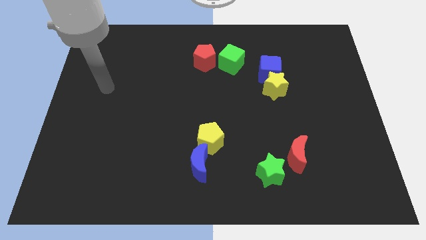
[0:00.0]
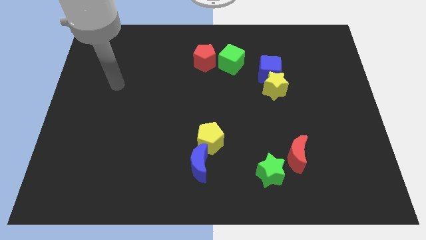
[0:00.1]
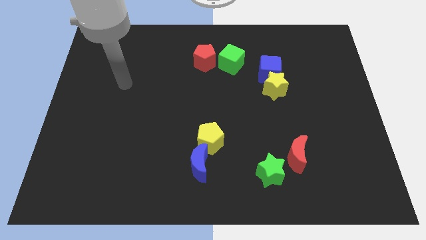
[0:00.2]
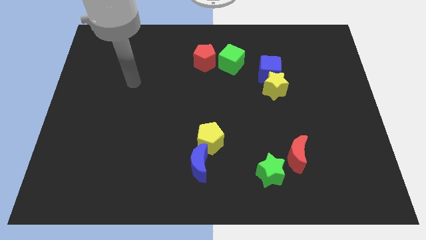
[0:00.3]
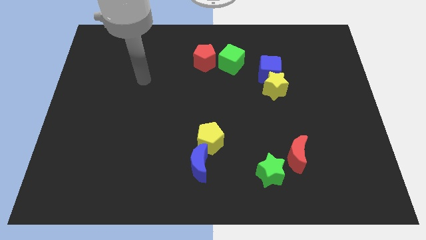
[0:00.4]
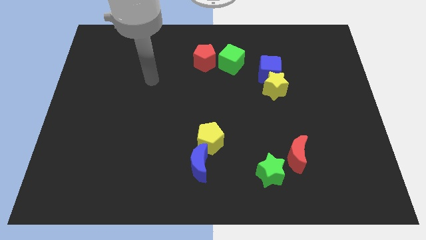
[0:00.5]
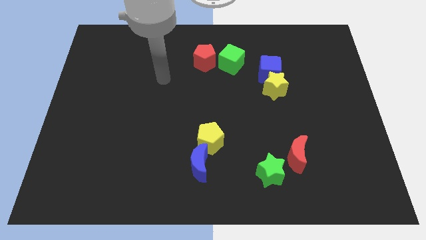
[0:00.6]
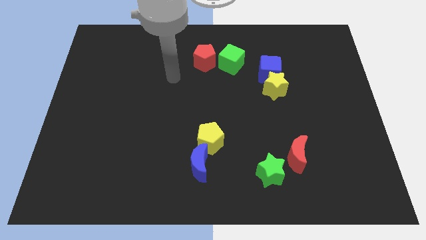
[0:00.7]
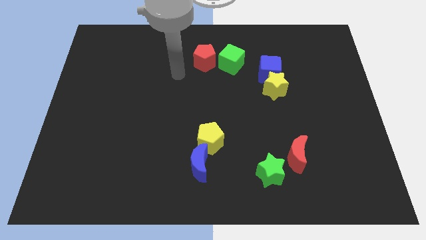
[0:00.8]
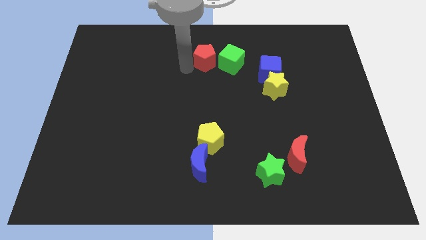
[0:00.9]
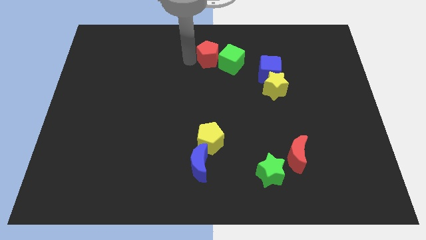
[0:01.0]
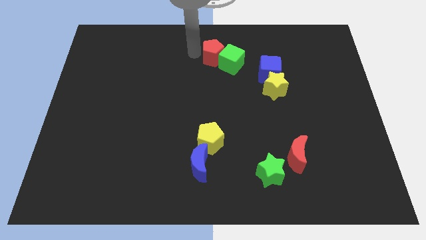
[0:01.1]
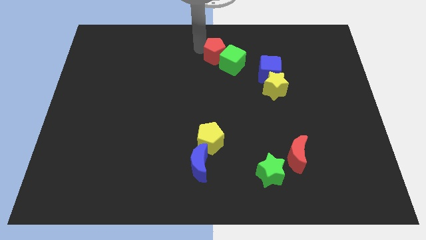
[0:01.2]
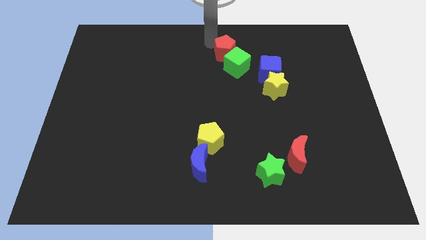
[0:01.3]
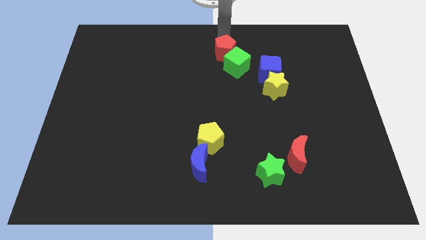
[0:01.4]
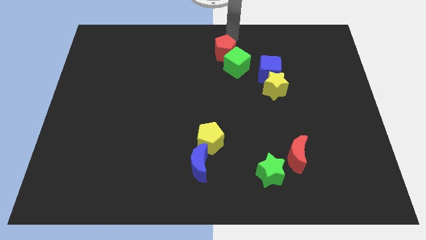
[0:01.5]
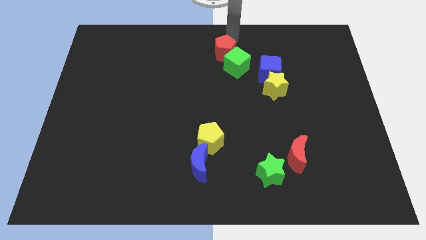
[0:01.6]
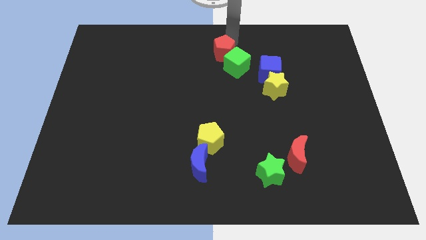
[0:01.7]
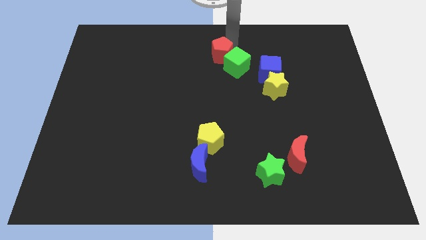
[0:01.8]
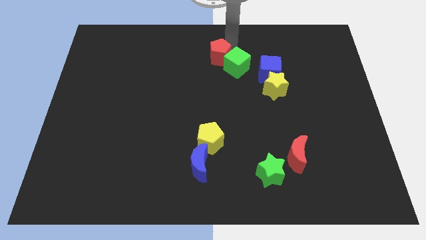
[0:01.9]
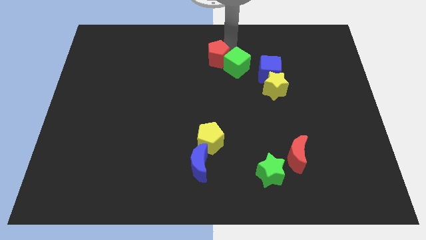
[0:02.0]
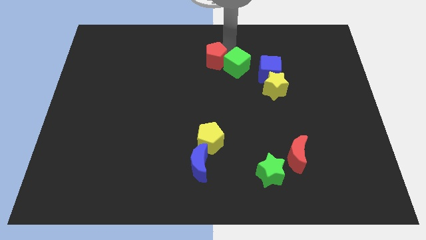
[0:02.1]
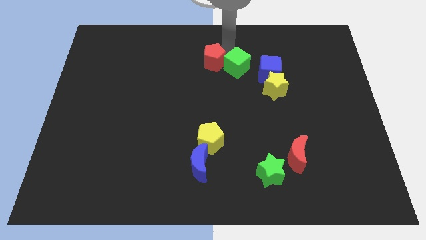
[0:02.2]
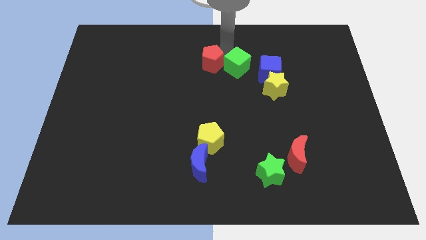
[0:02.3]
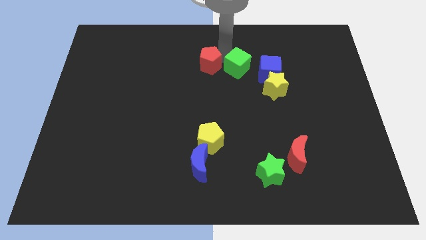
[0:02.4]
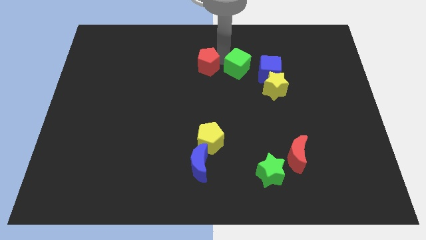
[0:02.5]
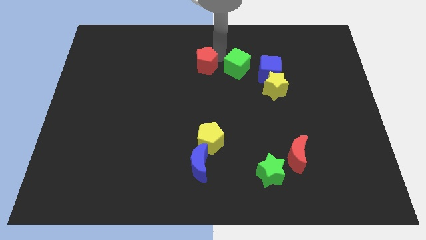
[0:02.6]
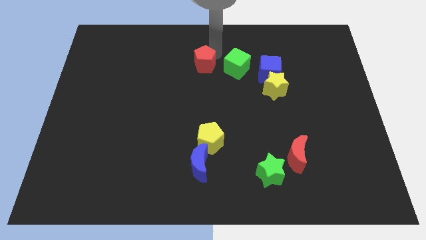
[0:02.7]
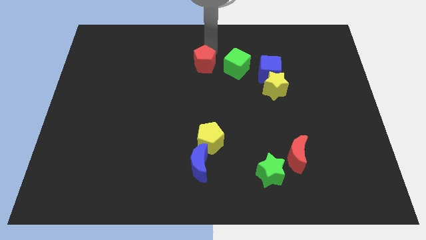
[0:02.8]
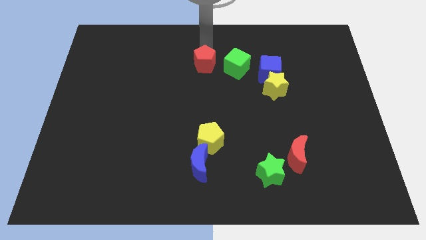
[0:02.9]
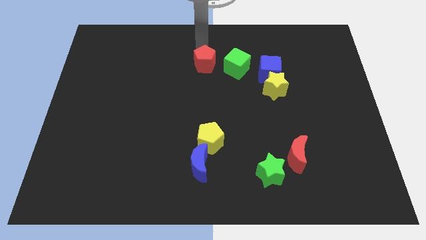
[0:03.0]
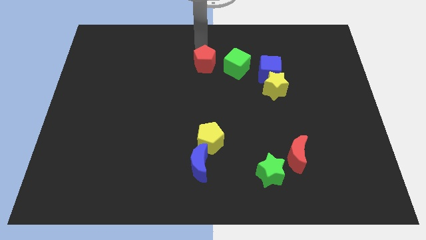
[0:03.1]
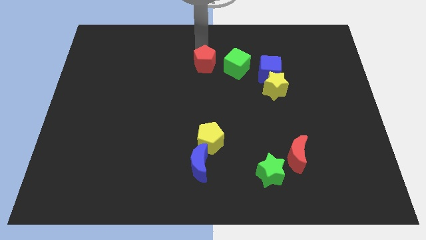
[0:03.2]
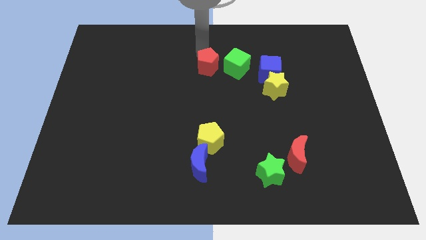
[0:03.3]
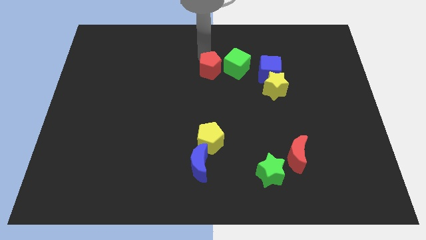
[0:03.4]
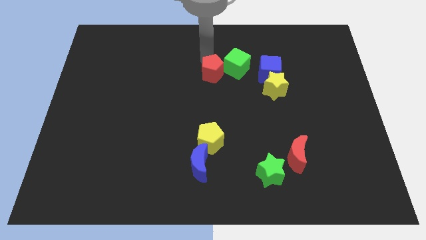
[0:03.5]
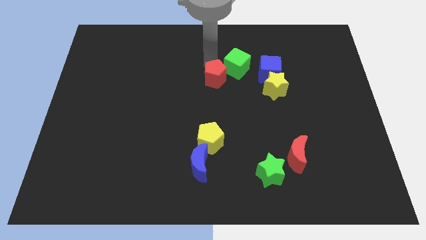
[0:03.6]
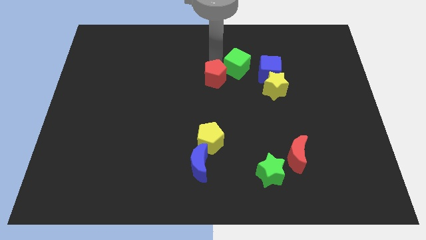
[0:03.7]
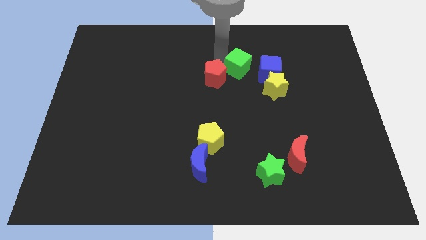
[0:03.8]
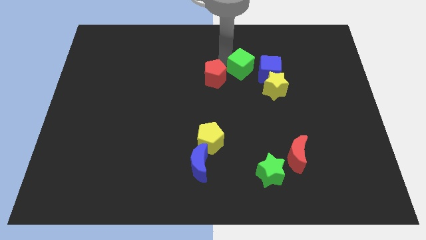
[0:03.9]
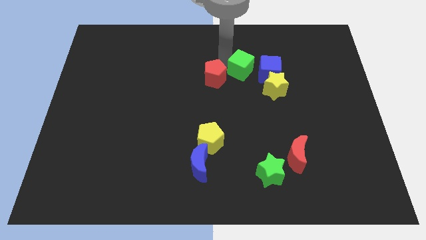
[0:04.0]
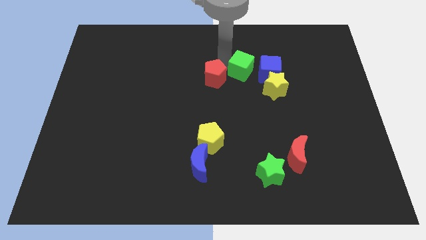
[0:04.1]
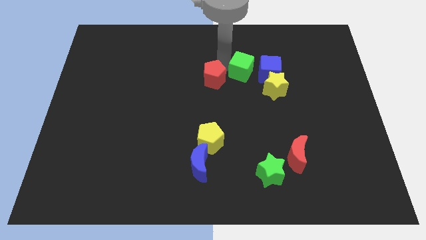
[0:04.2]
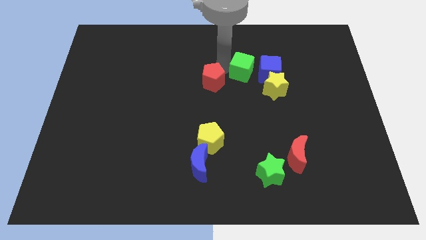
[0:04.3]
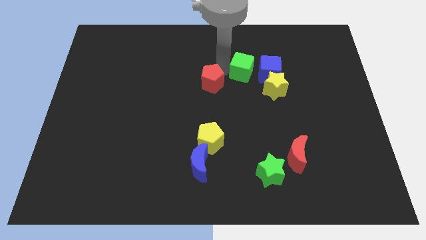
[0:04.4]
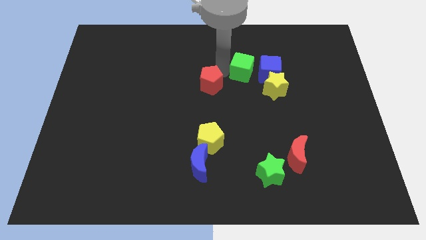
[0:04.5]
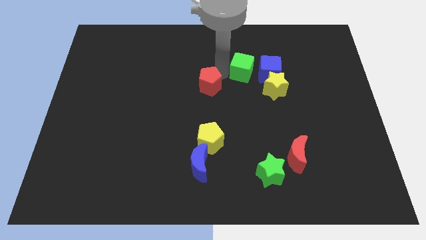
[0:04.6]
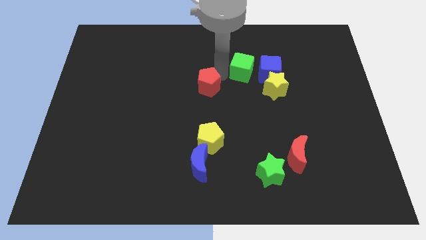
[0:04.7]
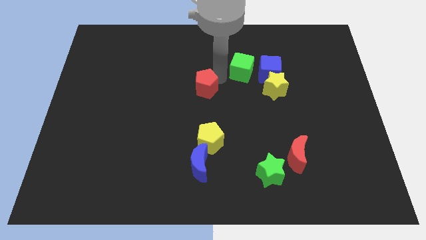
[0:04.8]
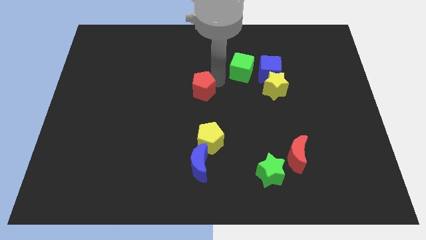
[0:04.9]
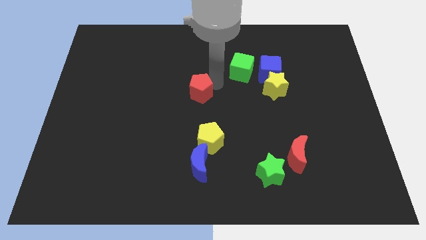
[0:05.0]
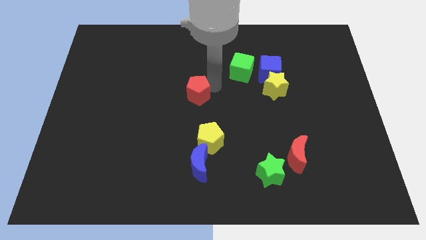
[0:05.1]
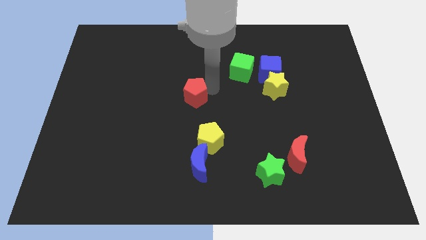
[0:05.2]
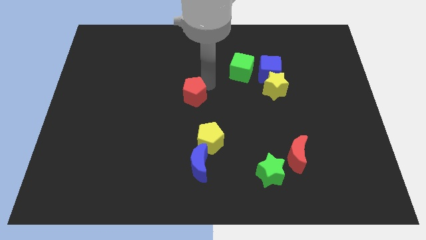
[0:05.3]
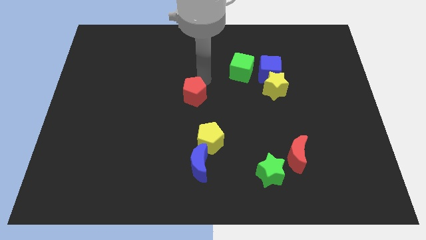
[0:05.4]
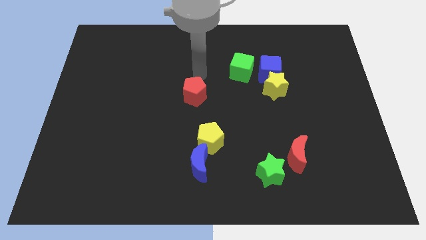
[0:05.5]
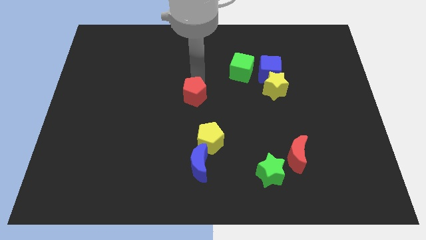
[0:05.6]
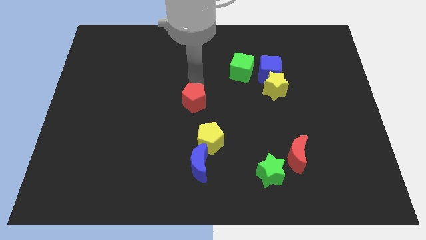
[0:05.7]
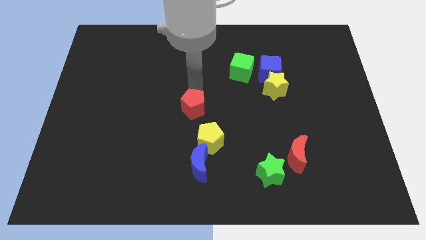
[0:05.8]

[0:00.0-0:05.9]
push the red pentagon to the top left side of the yellow pentagon

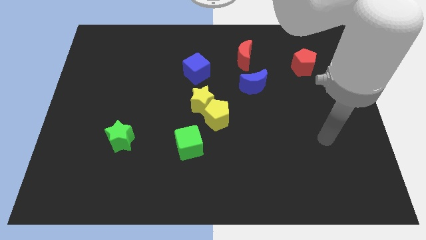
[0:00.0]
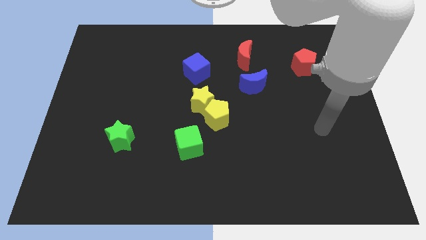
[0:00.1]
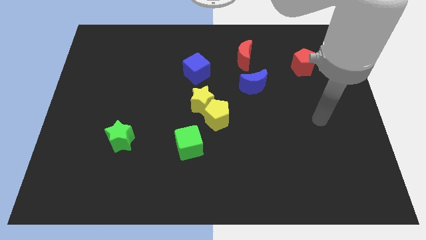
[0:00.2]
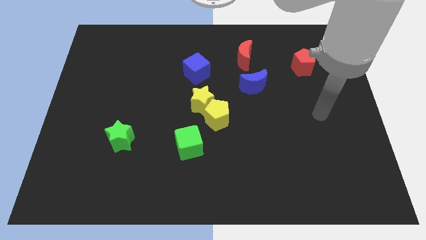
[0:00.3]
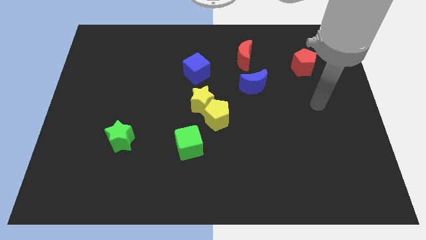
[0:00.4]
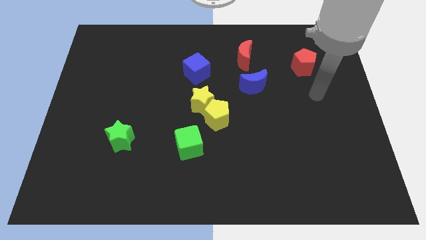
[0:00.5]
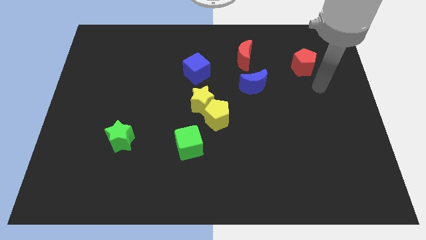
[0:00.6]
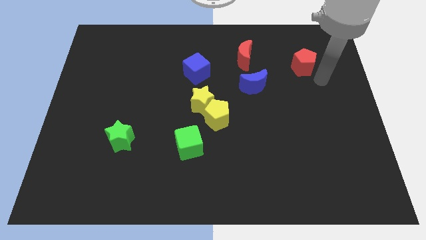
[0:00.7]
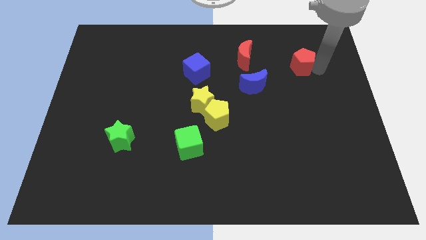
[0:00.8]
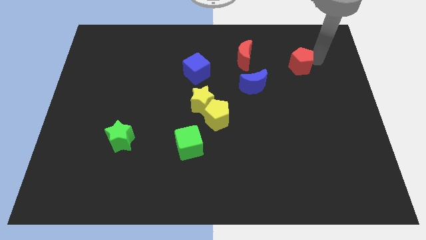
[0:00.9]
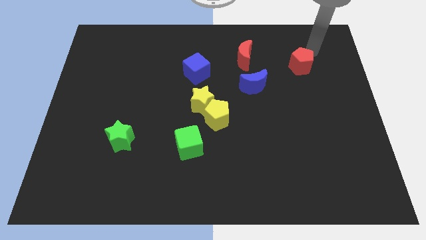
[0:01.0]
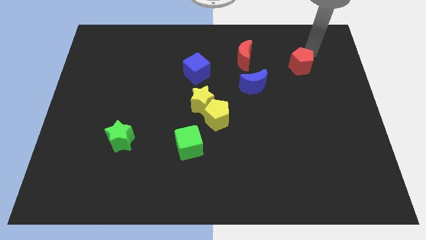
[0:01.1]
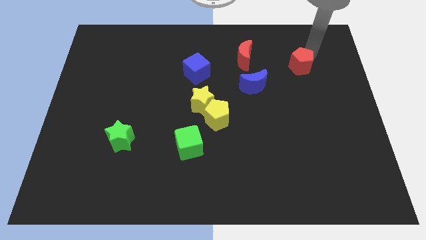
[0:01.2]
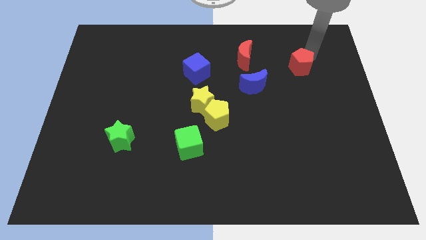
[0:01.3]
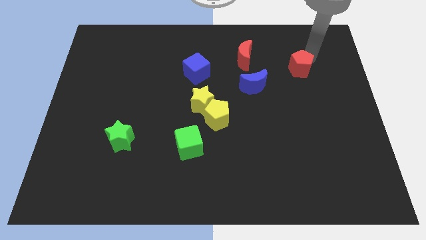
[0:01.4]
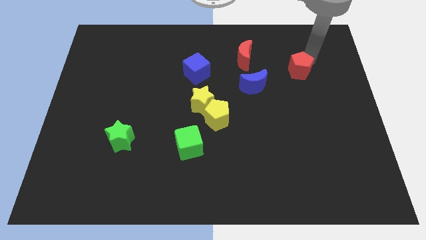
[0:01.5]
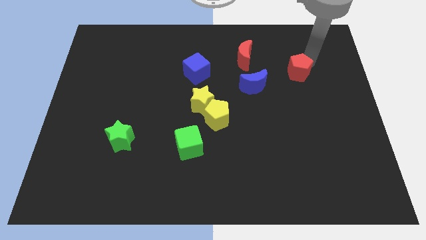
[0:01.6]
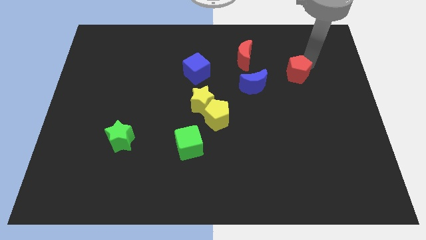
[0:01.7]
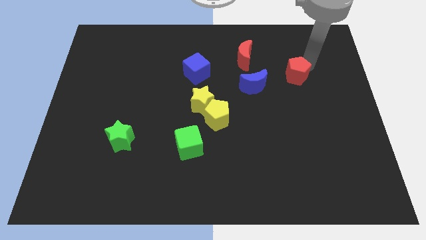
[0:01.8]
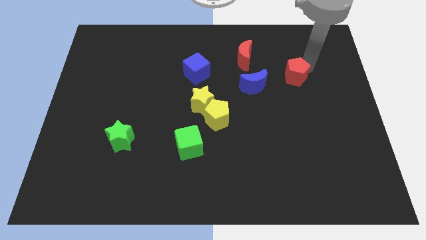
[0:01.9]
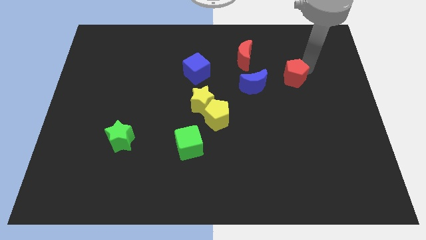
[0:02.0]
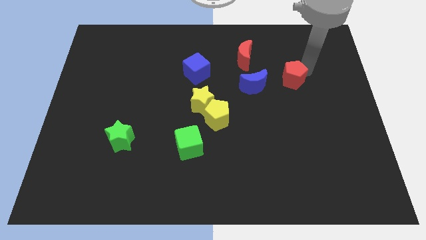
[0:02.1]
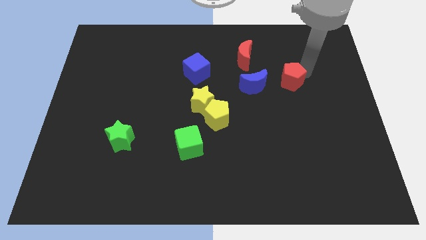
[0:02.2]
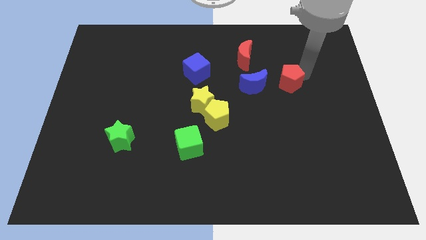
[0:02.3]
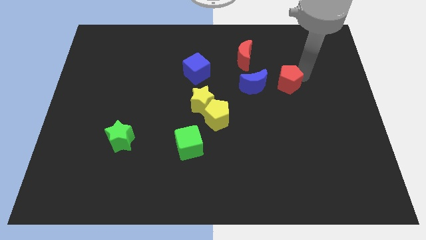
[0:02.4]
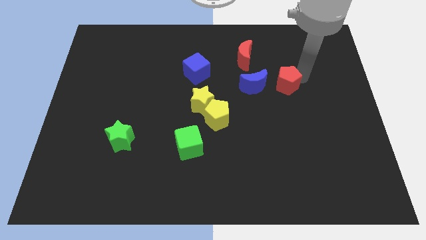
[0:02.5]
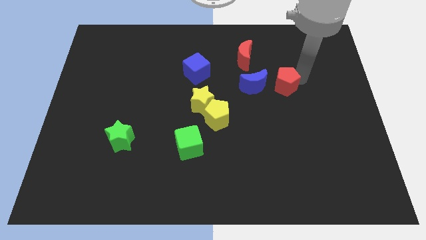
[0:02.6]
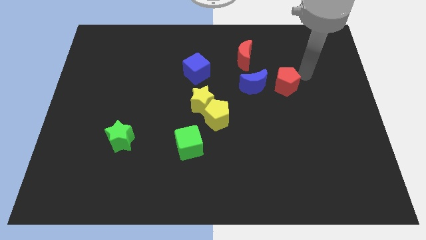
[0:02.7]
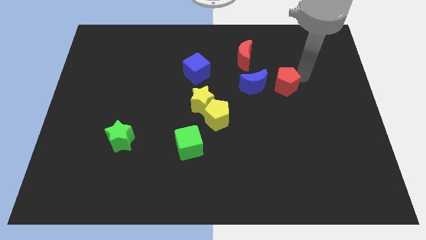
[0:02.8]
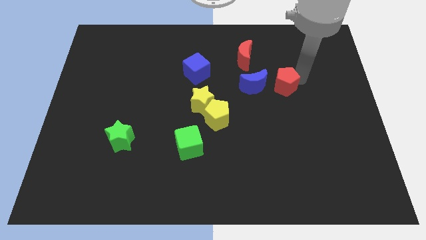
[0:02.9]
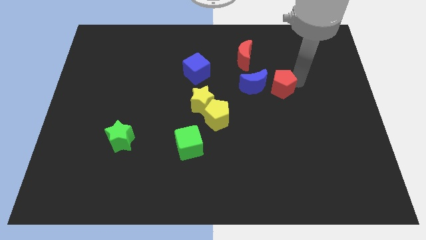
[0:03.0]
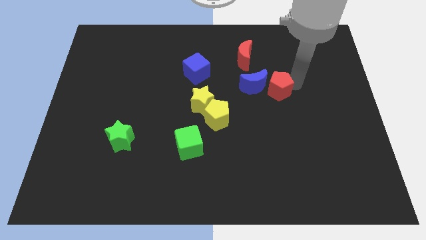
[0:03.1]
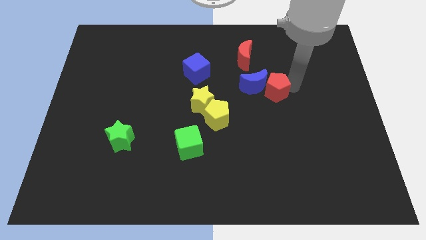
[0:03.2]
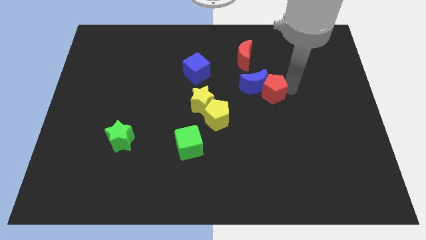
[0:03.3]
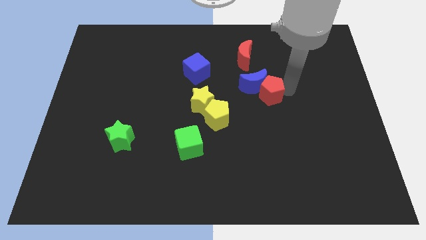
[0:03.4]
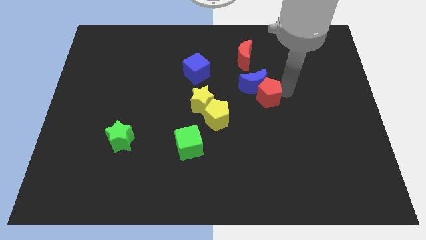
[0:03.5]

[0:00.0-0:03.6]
move the red pentagon to the right of the yellow star
